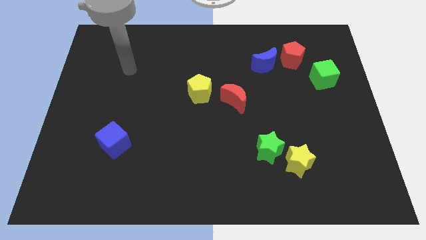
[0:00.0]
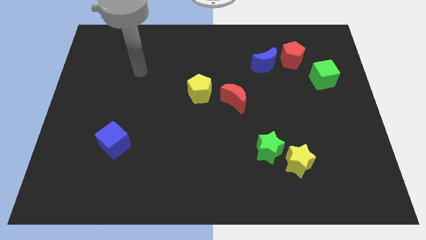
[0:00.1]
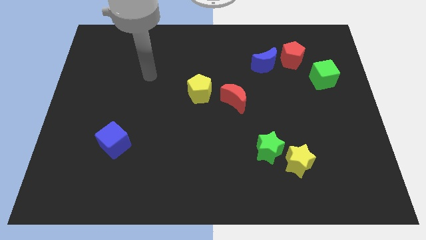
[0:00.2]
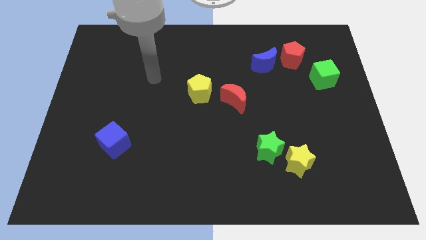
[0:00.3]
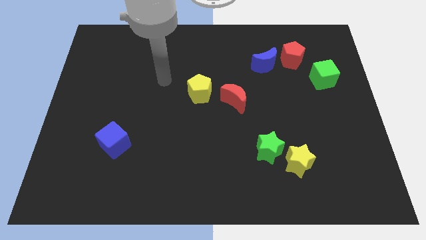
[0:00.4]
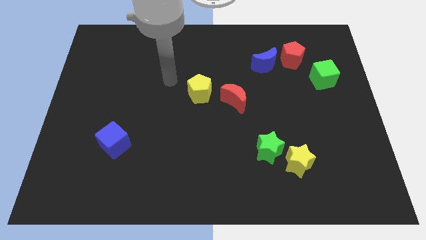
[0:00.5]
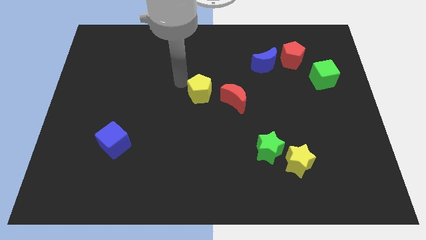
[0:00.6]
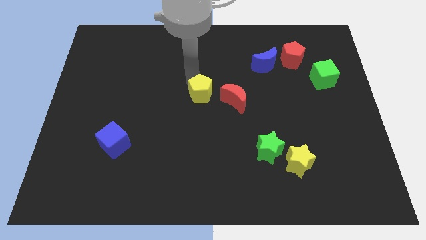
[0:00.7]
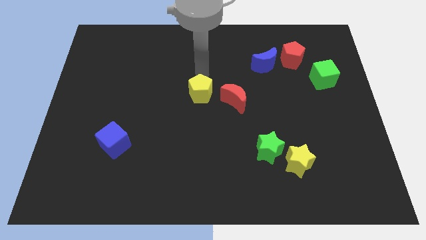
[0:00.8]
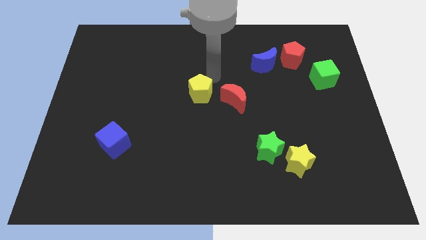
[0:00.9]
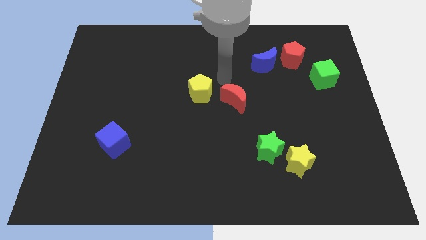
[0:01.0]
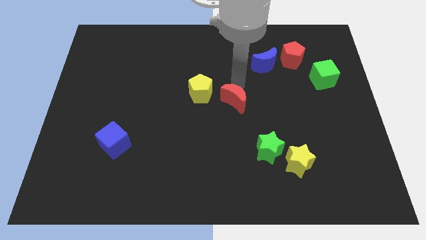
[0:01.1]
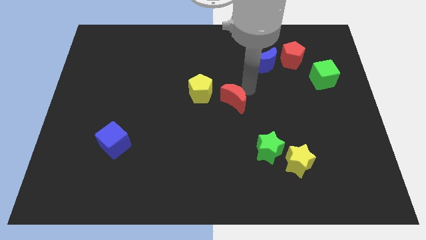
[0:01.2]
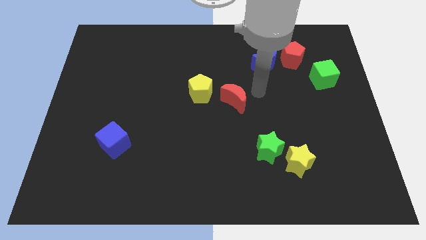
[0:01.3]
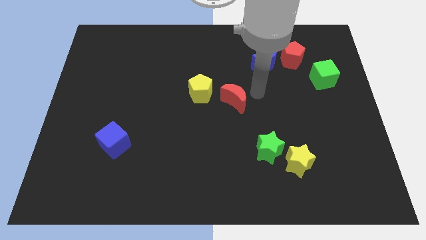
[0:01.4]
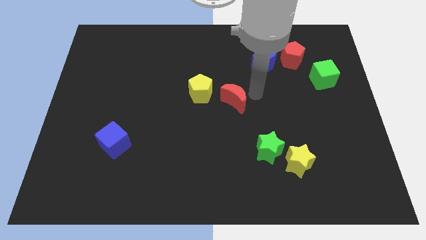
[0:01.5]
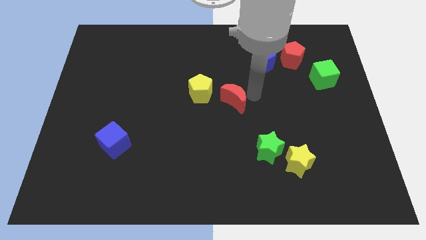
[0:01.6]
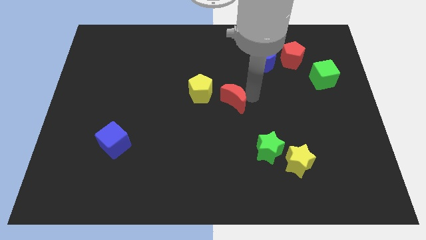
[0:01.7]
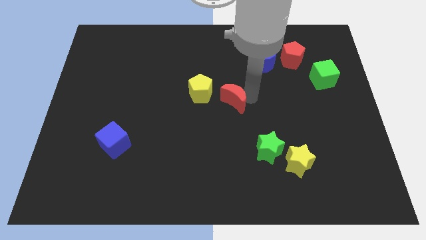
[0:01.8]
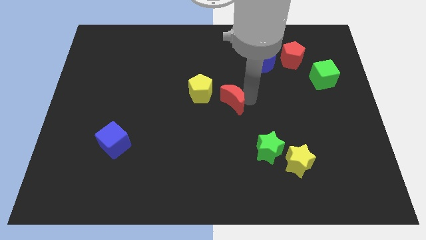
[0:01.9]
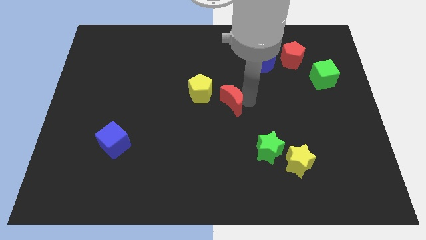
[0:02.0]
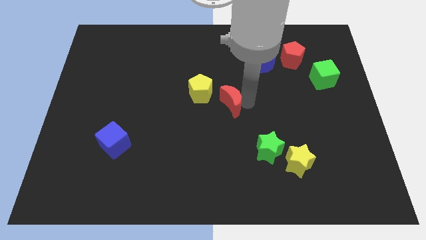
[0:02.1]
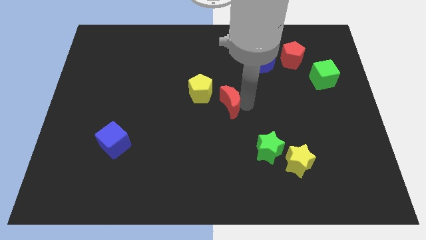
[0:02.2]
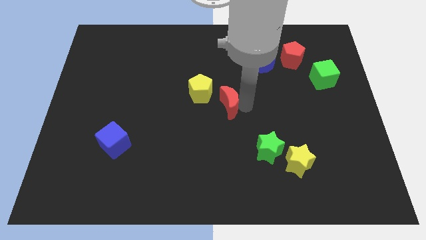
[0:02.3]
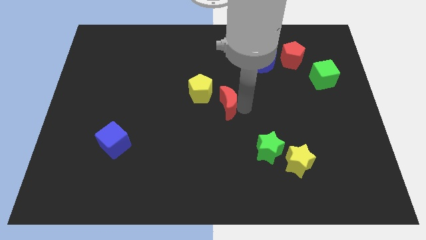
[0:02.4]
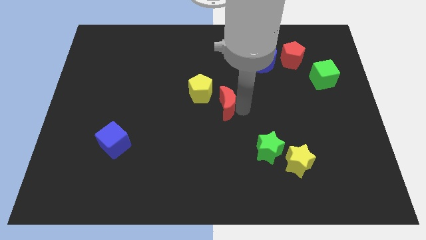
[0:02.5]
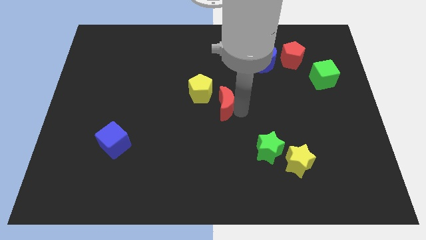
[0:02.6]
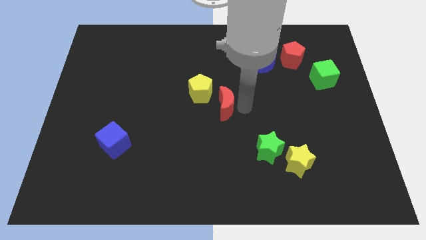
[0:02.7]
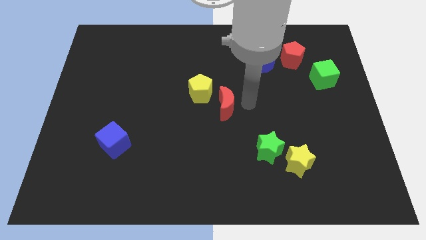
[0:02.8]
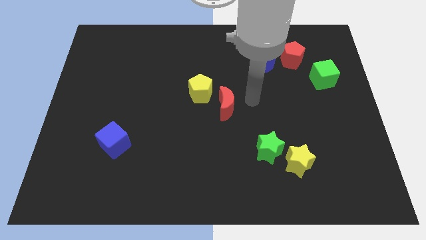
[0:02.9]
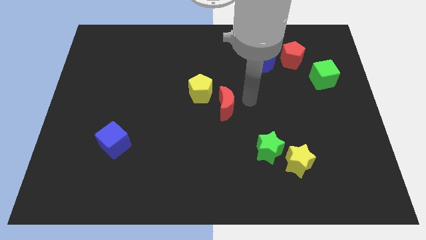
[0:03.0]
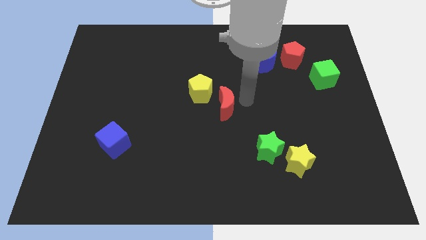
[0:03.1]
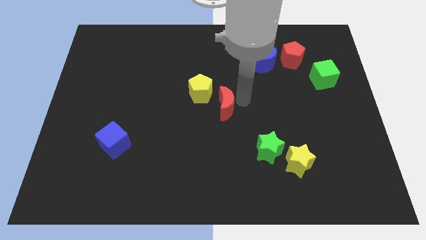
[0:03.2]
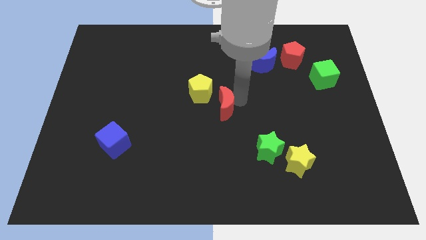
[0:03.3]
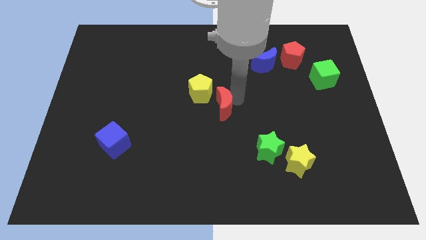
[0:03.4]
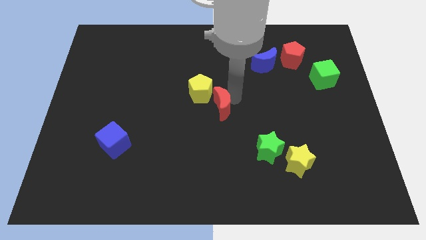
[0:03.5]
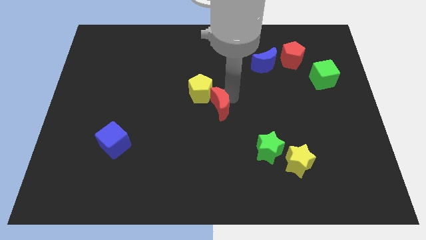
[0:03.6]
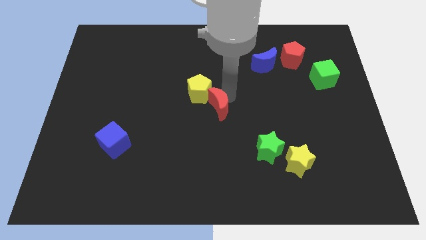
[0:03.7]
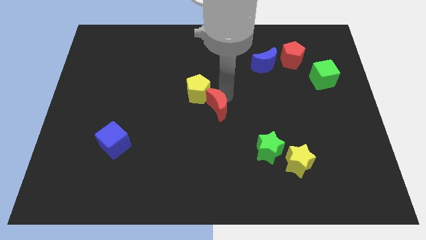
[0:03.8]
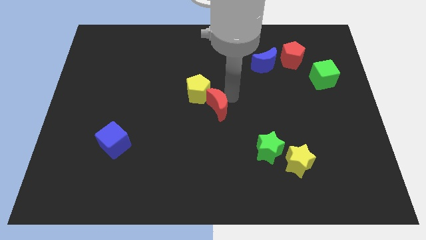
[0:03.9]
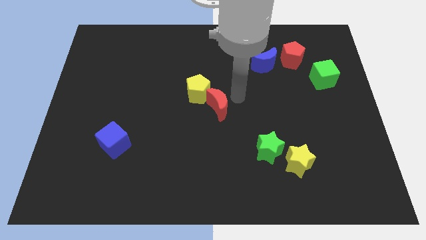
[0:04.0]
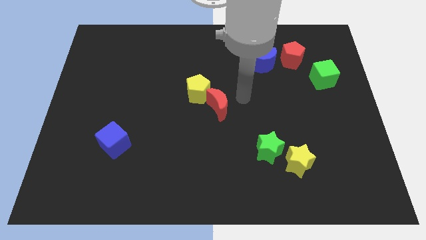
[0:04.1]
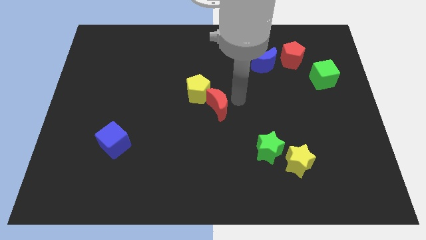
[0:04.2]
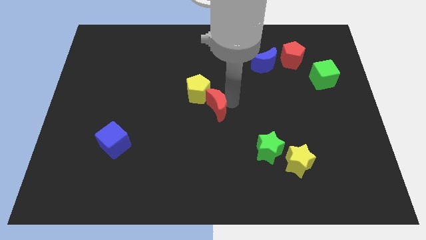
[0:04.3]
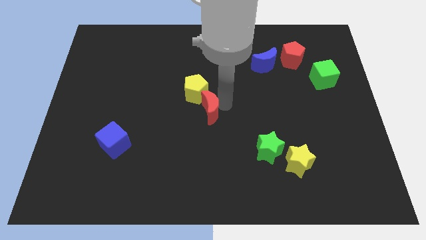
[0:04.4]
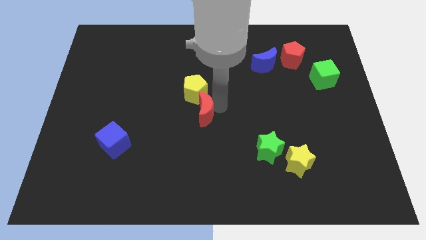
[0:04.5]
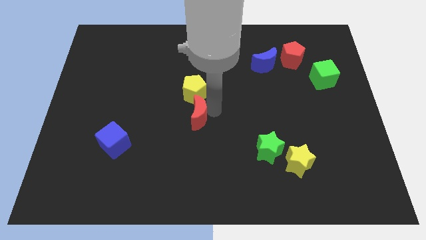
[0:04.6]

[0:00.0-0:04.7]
slightly slide the red moon left

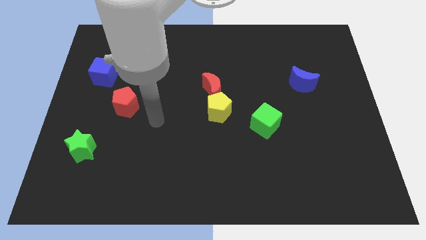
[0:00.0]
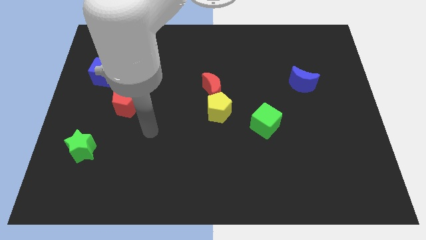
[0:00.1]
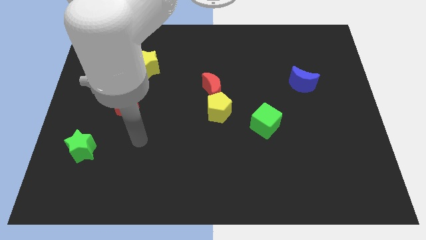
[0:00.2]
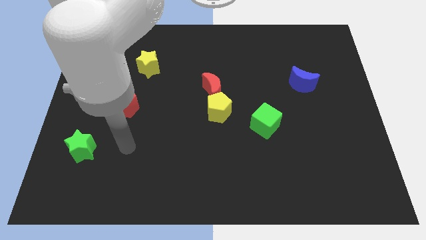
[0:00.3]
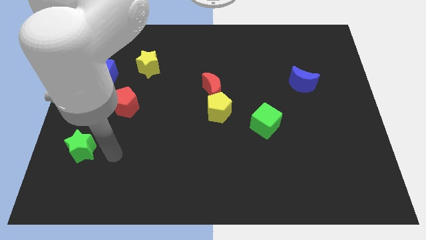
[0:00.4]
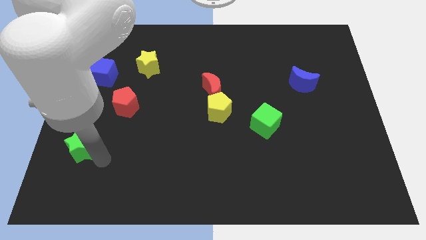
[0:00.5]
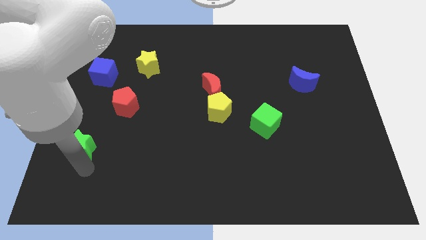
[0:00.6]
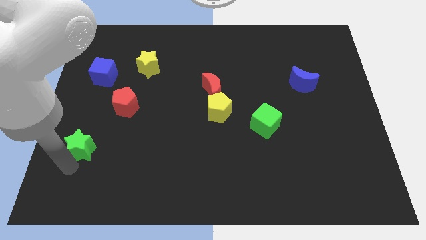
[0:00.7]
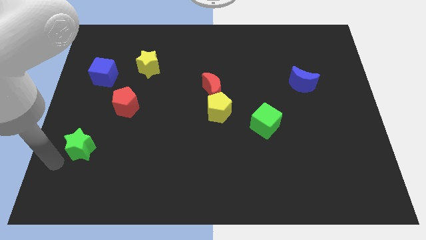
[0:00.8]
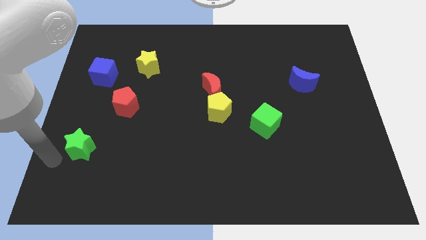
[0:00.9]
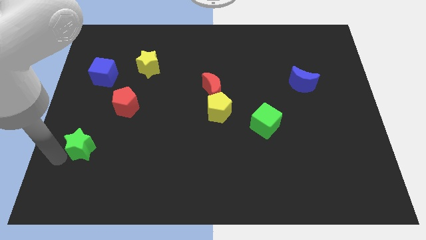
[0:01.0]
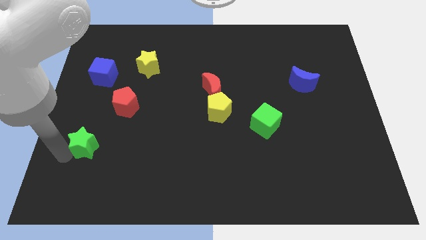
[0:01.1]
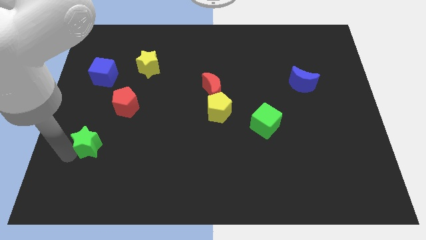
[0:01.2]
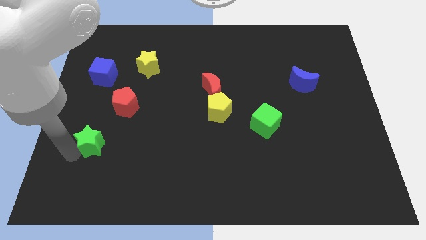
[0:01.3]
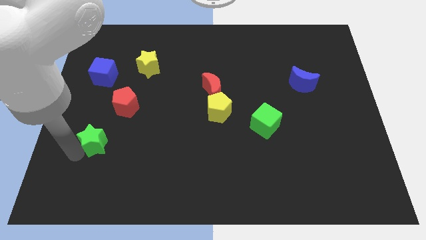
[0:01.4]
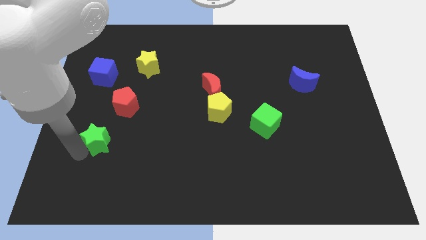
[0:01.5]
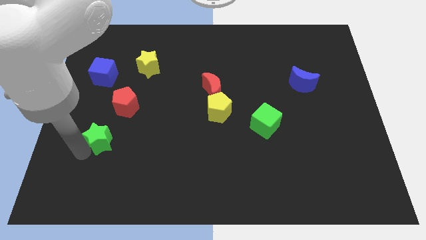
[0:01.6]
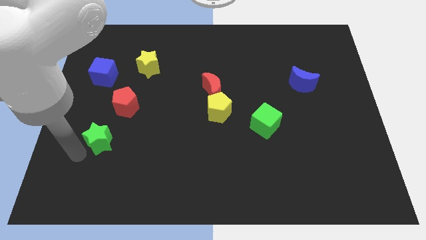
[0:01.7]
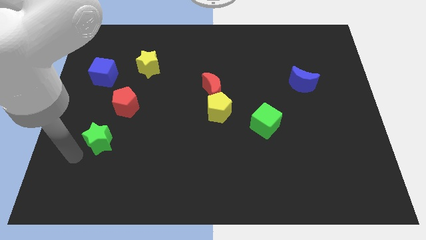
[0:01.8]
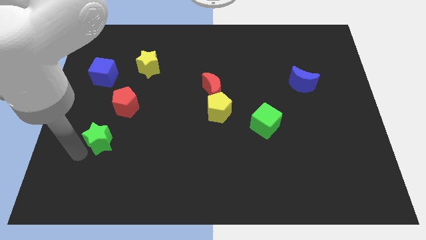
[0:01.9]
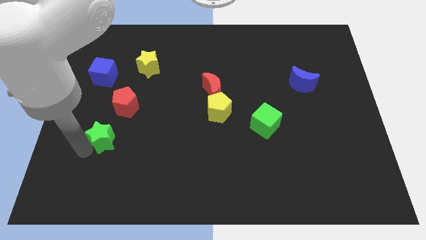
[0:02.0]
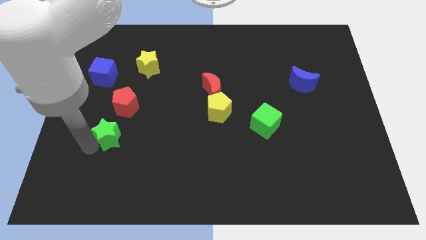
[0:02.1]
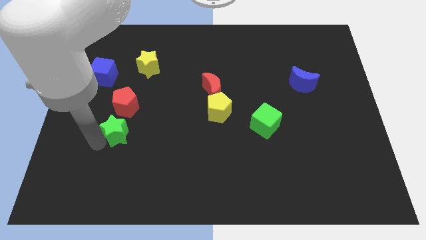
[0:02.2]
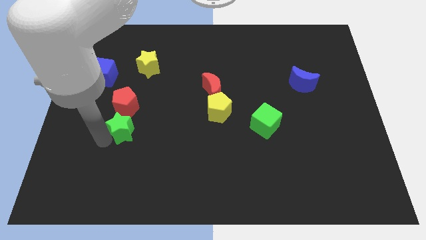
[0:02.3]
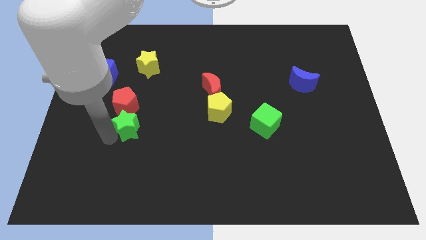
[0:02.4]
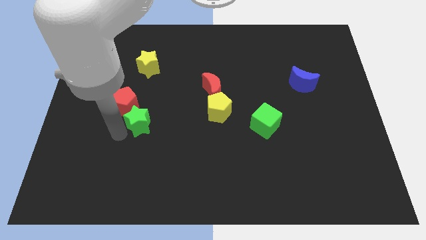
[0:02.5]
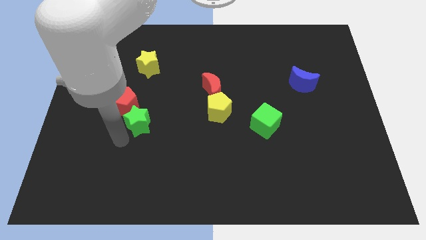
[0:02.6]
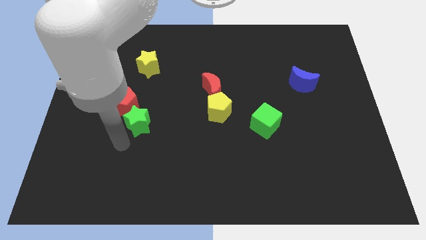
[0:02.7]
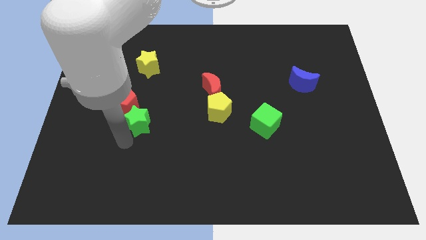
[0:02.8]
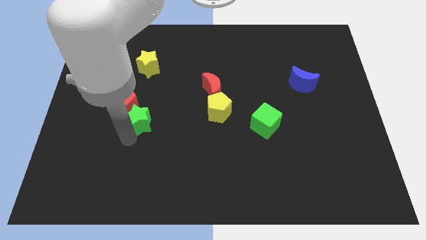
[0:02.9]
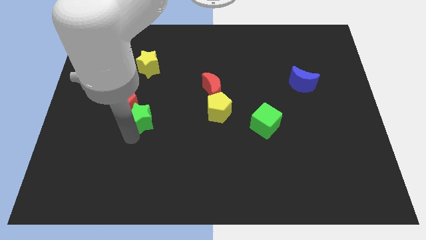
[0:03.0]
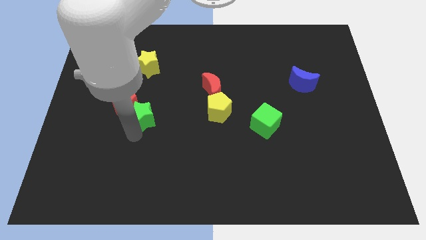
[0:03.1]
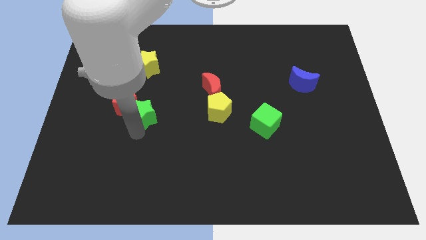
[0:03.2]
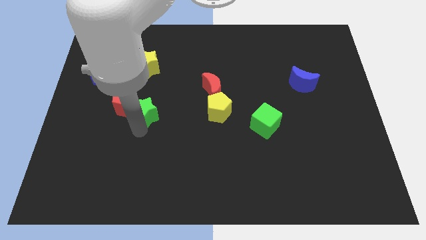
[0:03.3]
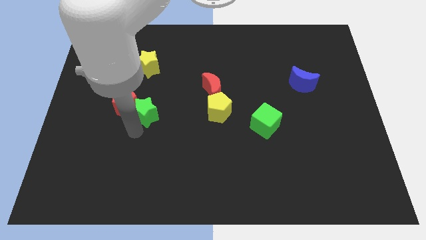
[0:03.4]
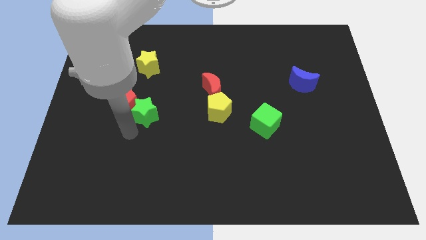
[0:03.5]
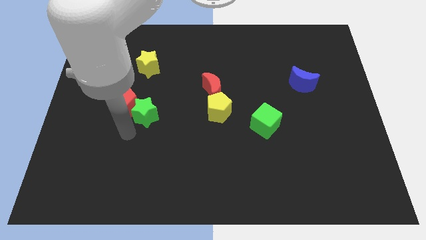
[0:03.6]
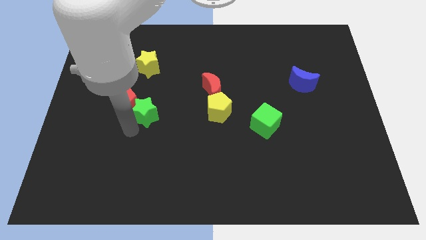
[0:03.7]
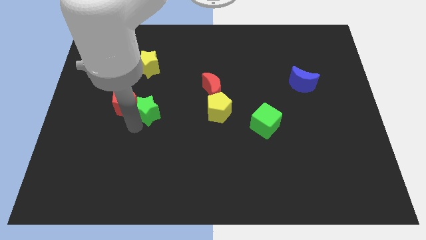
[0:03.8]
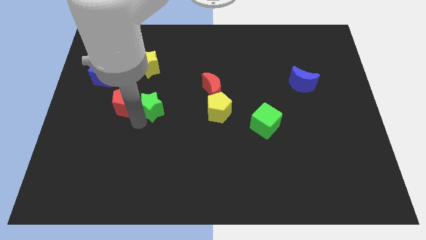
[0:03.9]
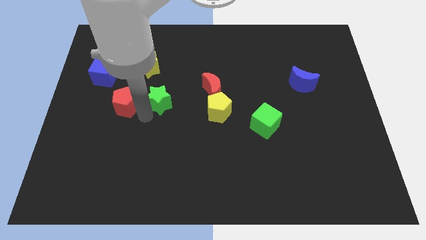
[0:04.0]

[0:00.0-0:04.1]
slide the green star diagonally up and to the right
